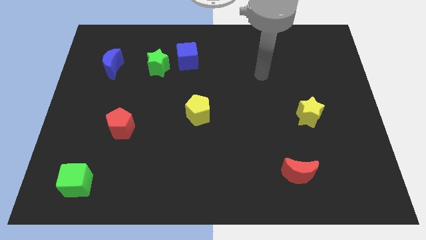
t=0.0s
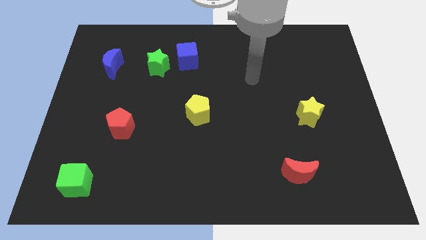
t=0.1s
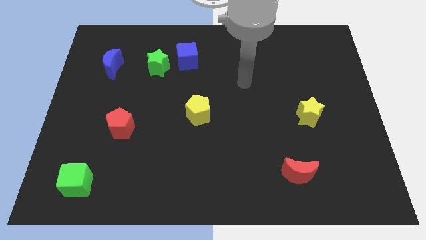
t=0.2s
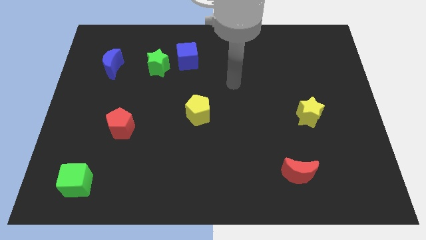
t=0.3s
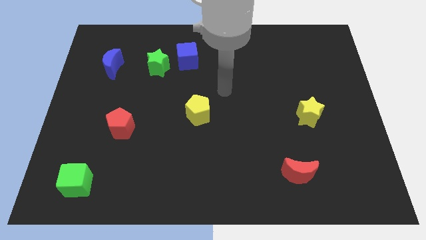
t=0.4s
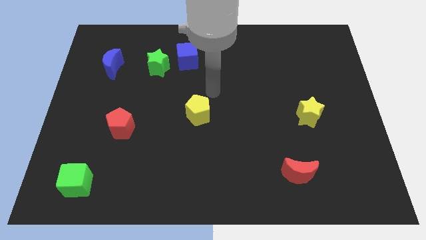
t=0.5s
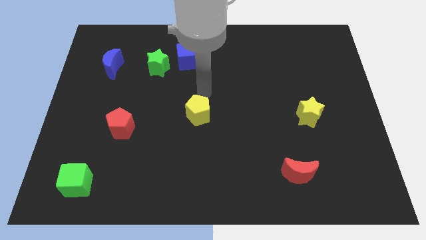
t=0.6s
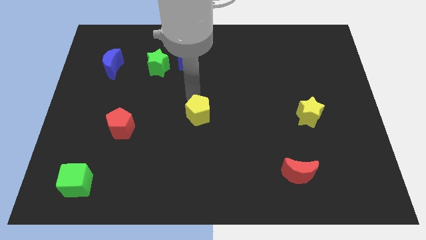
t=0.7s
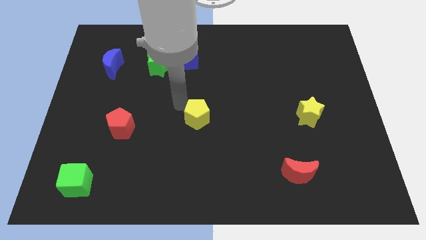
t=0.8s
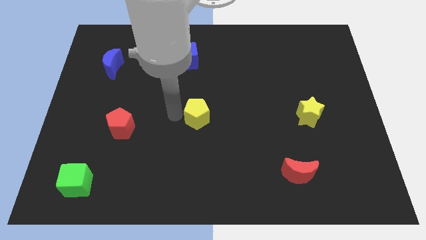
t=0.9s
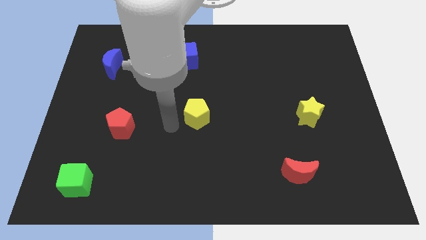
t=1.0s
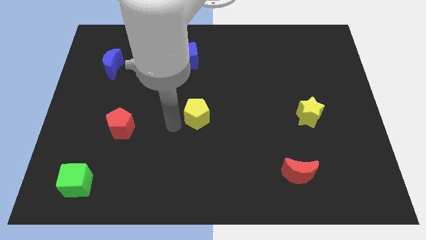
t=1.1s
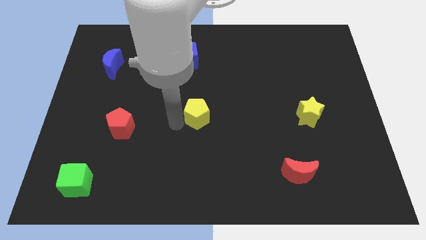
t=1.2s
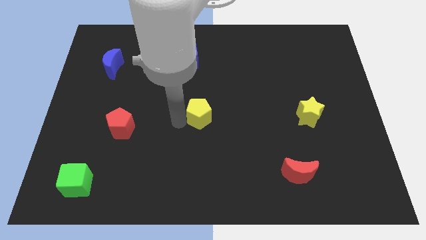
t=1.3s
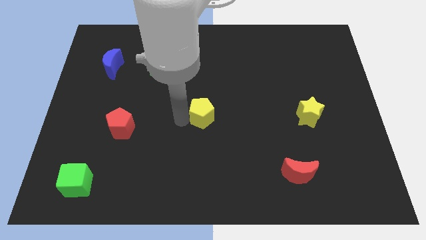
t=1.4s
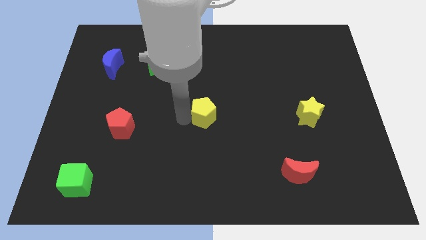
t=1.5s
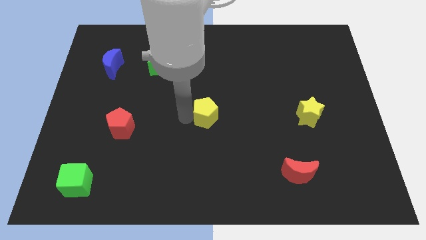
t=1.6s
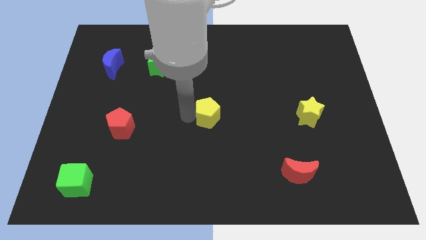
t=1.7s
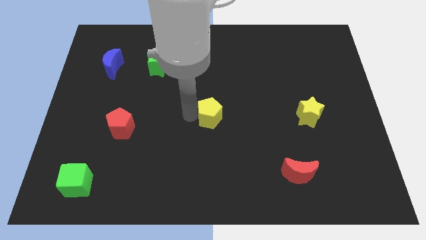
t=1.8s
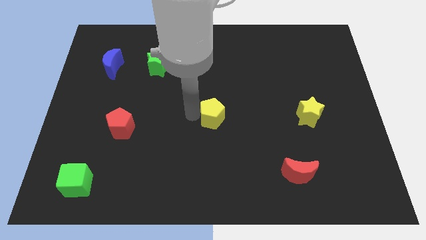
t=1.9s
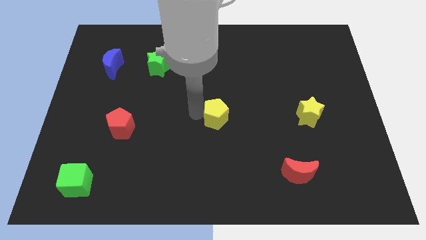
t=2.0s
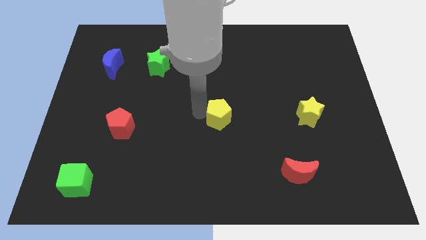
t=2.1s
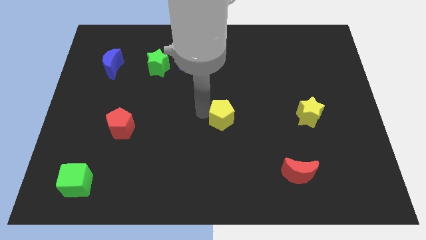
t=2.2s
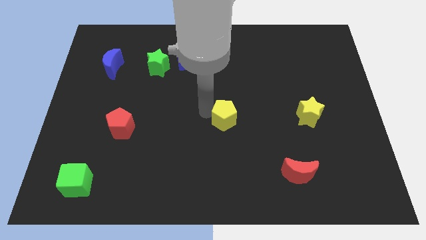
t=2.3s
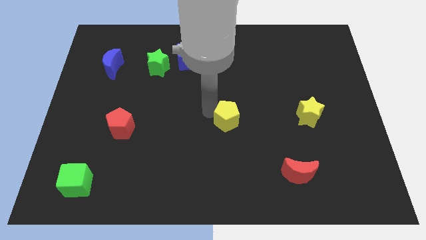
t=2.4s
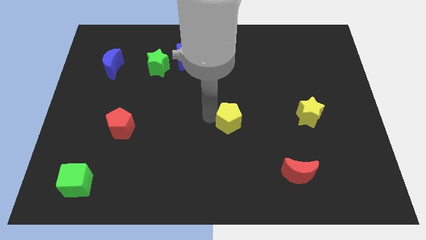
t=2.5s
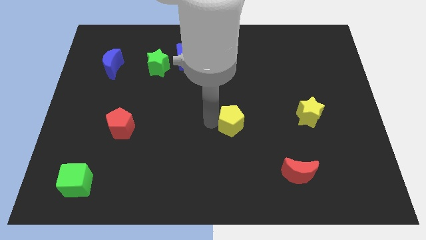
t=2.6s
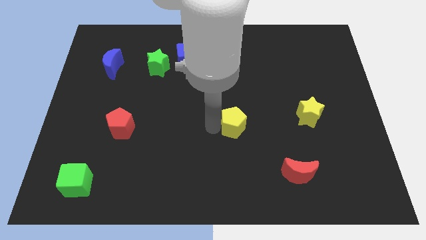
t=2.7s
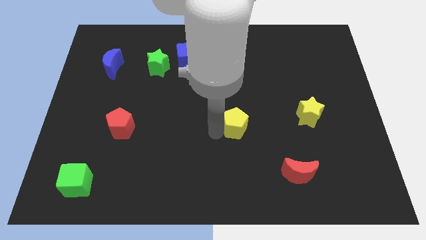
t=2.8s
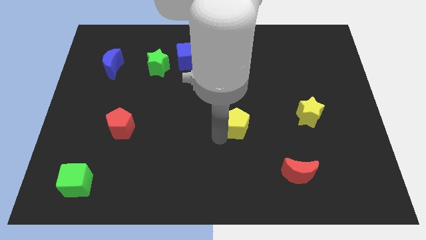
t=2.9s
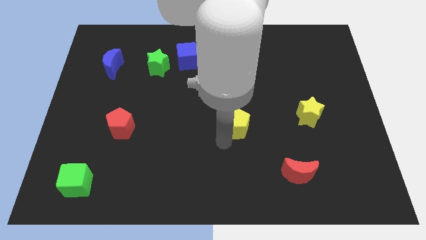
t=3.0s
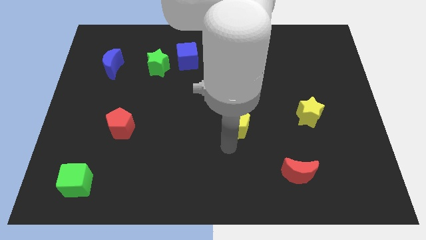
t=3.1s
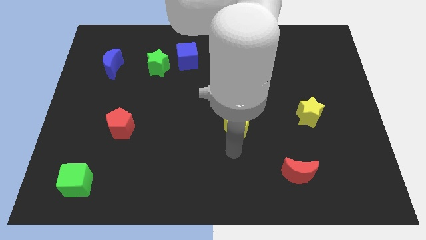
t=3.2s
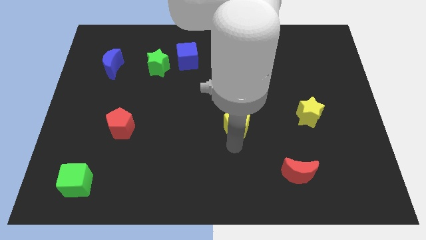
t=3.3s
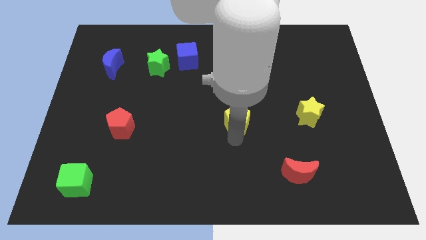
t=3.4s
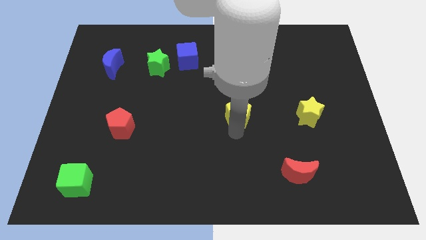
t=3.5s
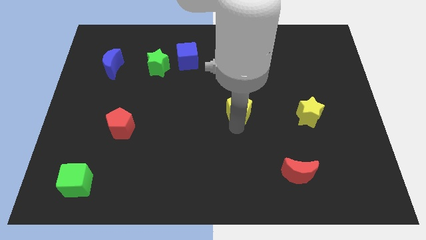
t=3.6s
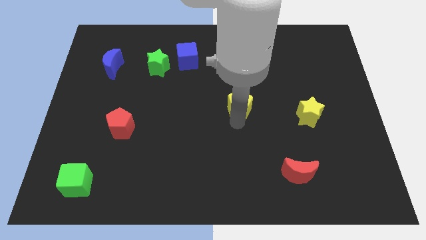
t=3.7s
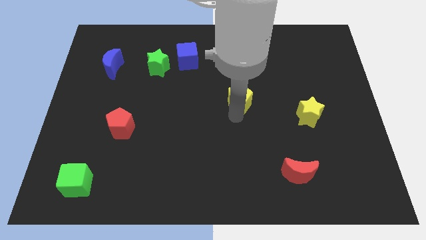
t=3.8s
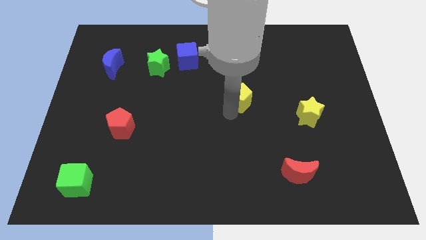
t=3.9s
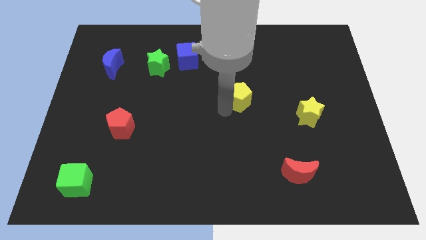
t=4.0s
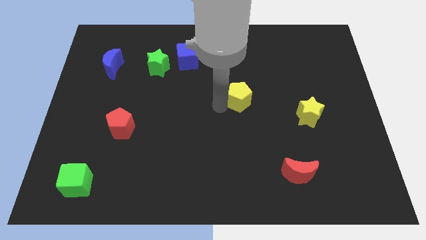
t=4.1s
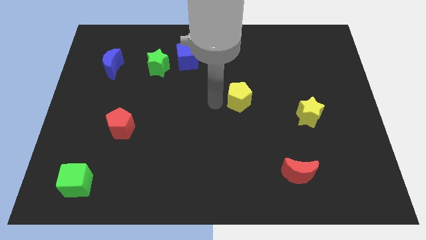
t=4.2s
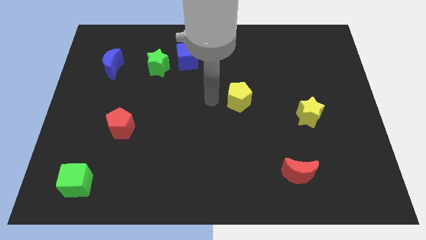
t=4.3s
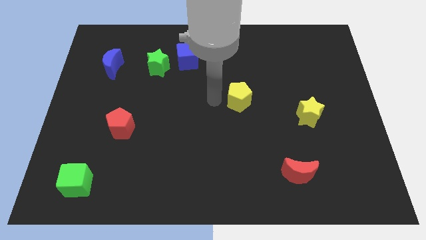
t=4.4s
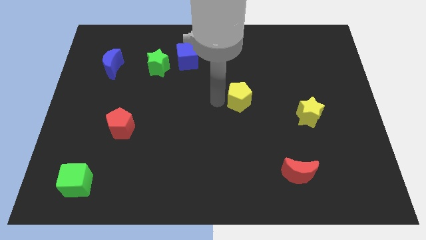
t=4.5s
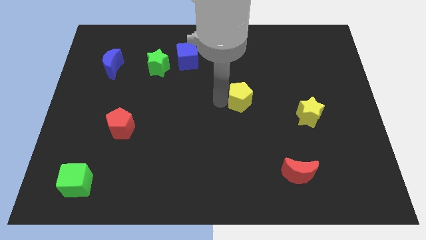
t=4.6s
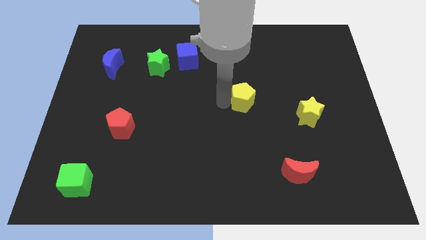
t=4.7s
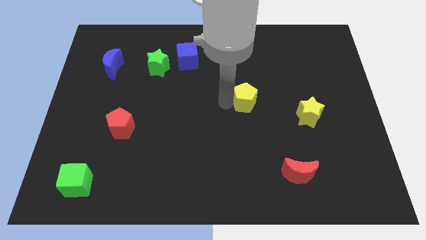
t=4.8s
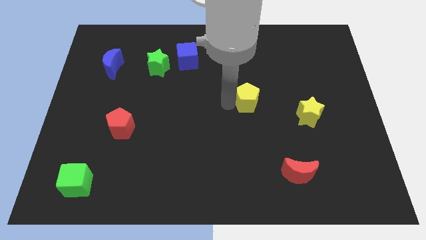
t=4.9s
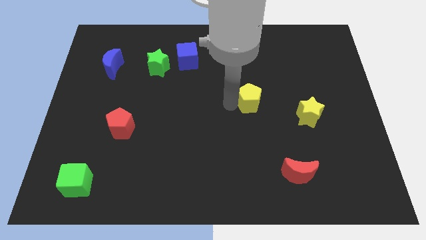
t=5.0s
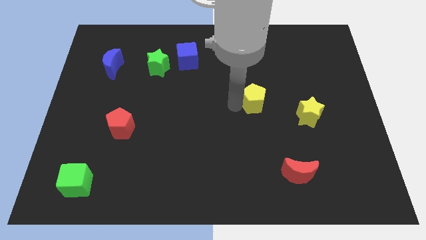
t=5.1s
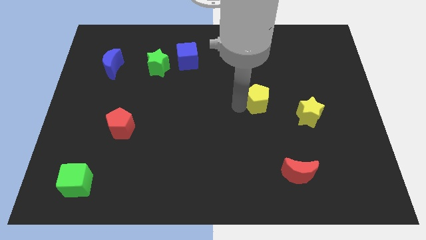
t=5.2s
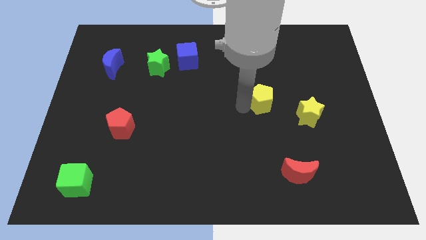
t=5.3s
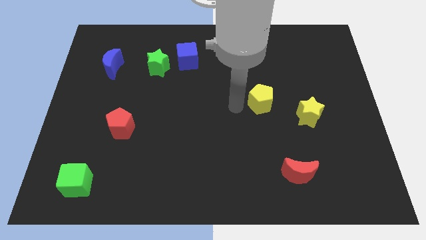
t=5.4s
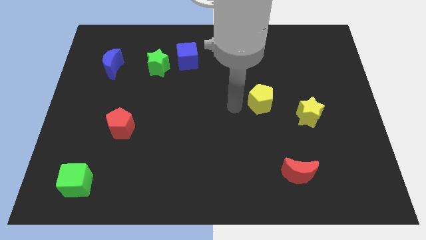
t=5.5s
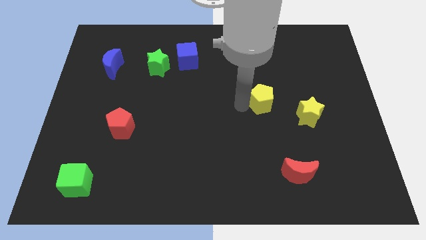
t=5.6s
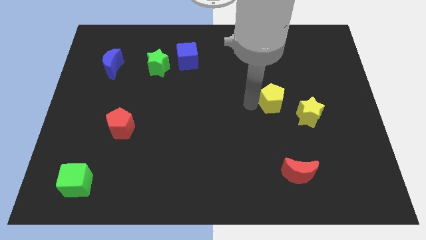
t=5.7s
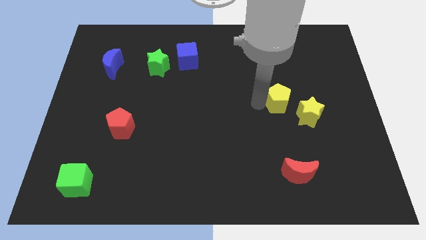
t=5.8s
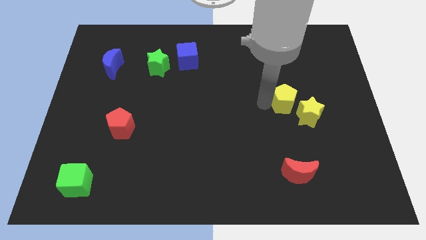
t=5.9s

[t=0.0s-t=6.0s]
move the yellow pentagon to the right

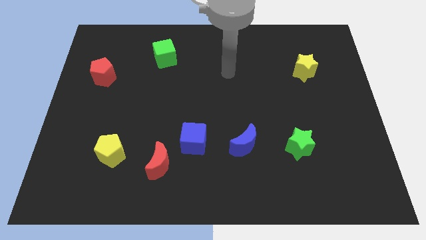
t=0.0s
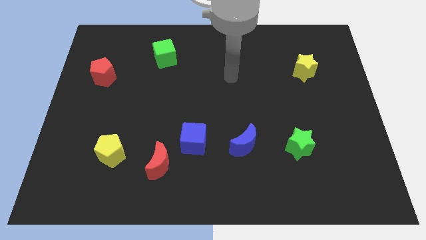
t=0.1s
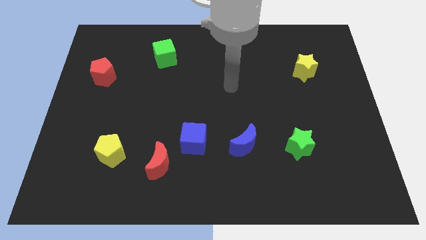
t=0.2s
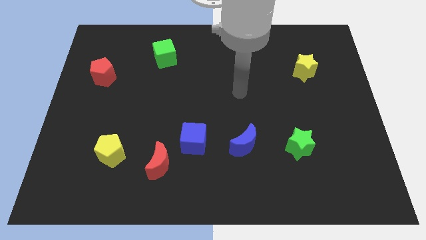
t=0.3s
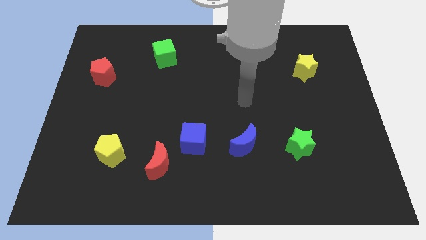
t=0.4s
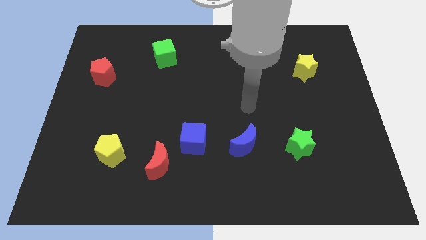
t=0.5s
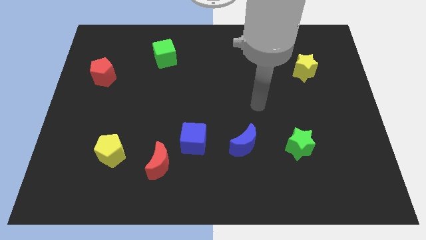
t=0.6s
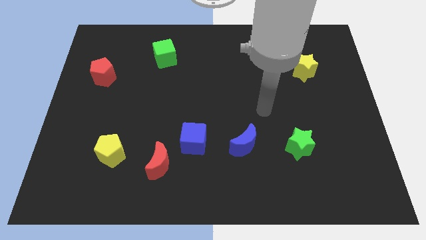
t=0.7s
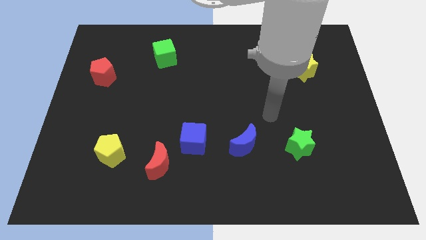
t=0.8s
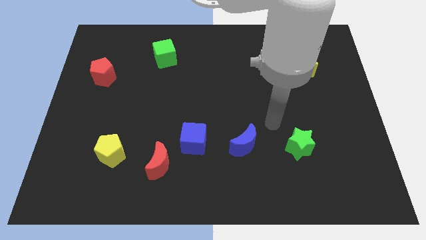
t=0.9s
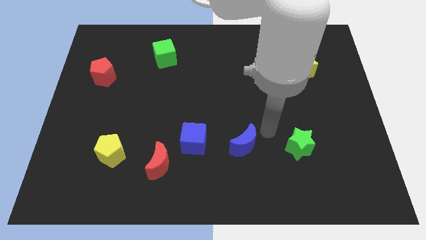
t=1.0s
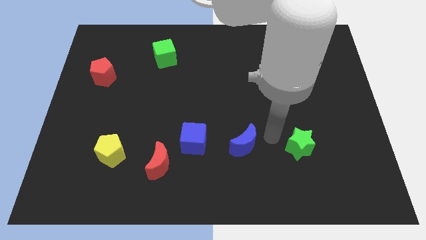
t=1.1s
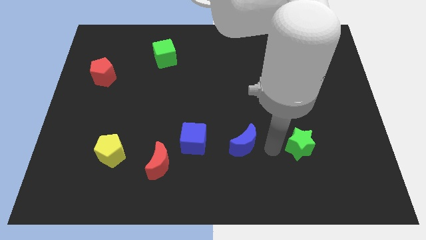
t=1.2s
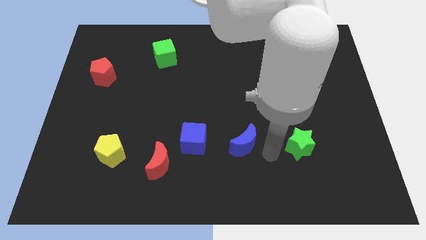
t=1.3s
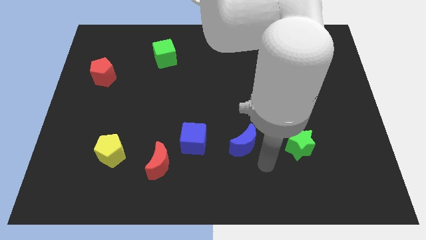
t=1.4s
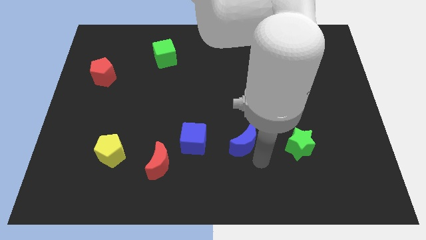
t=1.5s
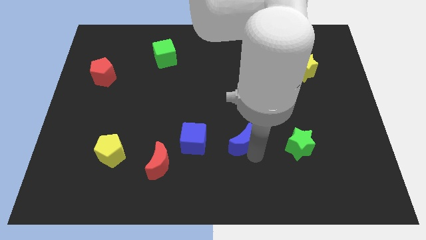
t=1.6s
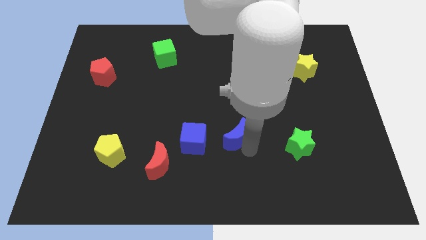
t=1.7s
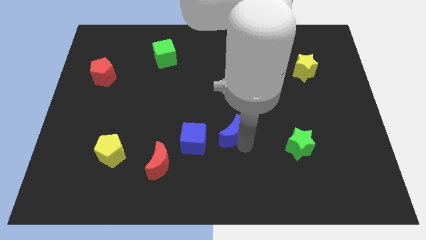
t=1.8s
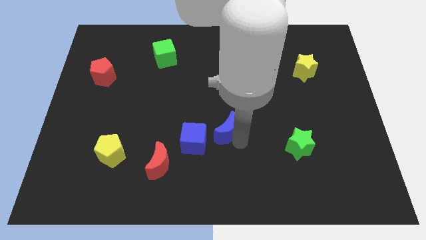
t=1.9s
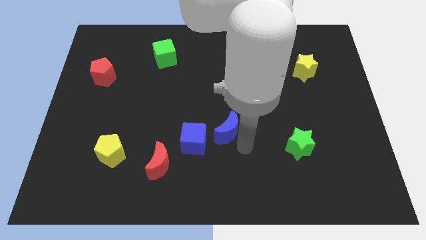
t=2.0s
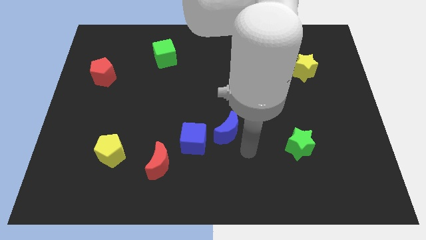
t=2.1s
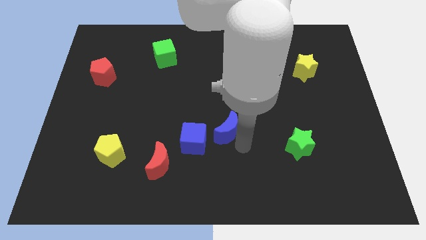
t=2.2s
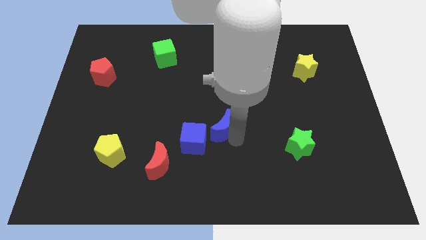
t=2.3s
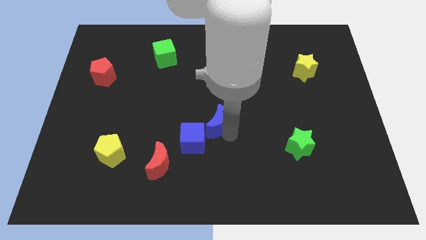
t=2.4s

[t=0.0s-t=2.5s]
slide the blue moon diagonally up and left slightly
